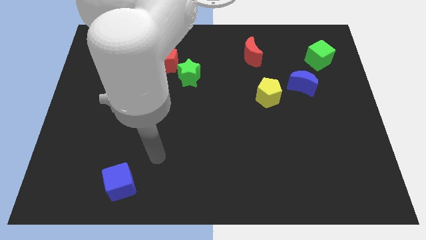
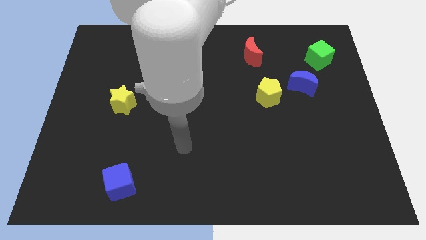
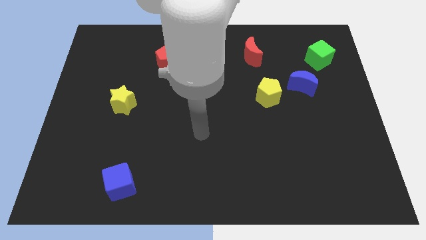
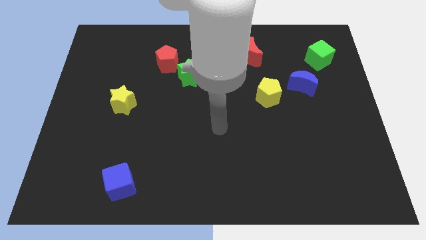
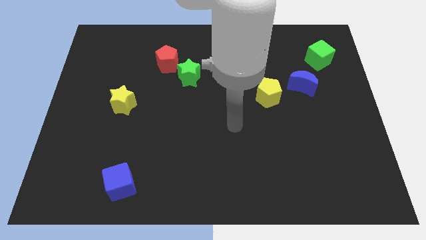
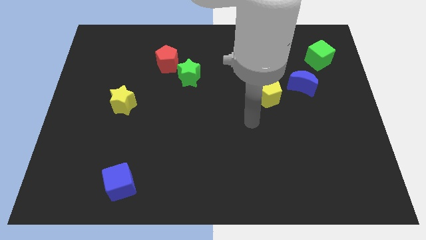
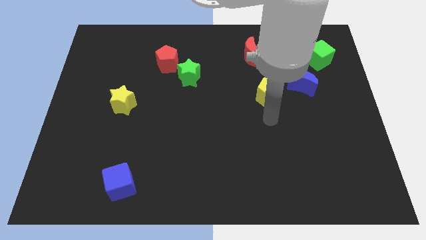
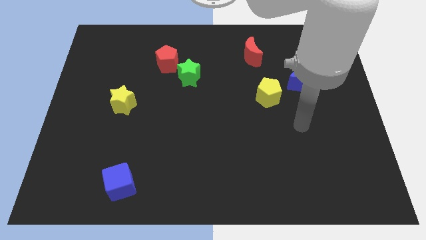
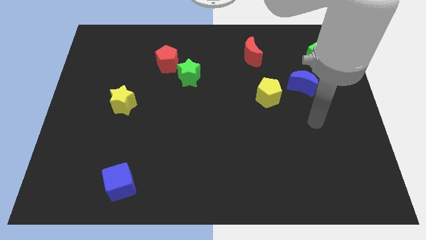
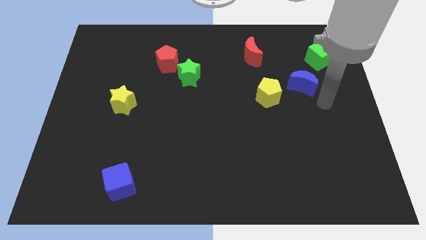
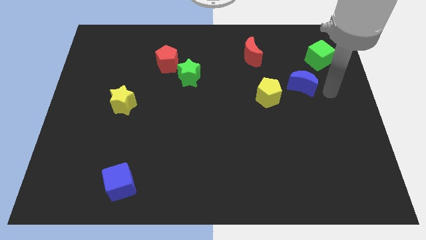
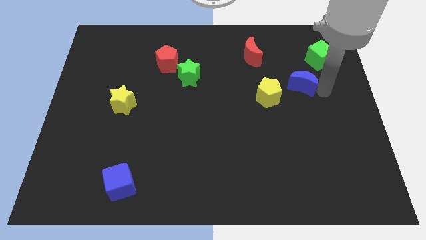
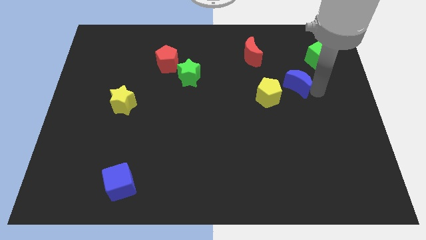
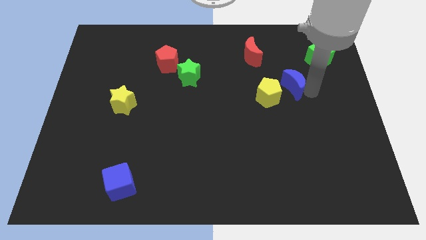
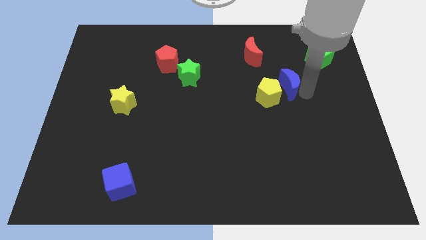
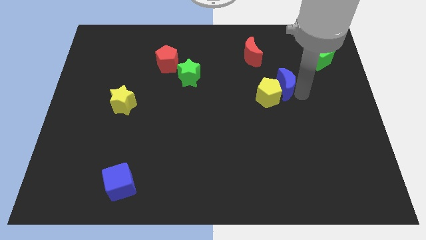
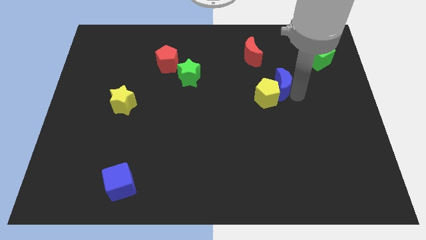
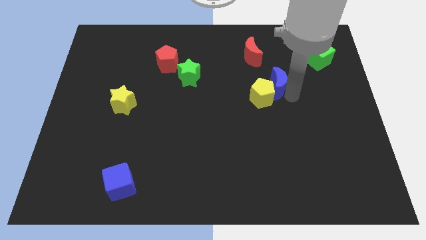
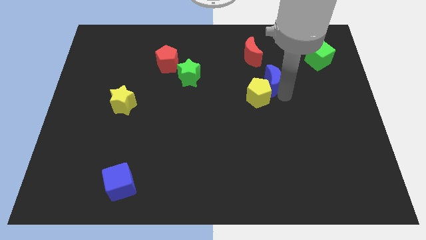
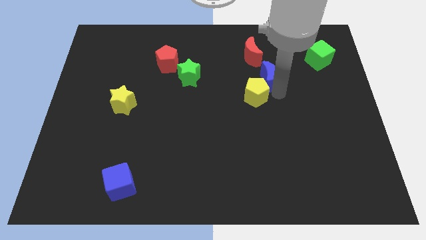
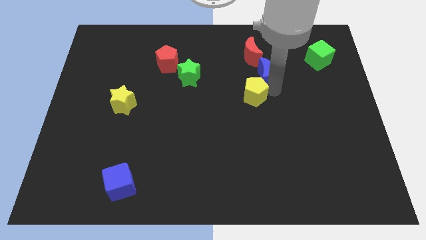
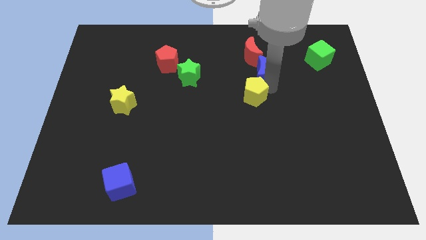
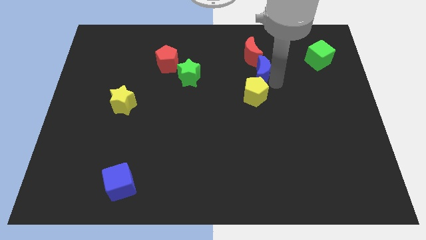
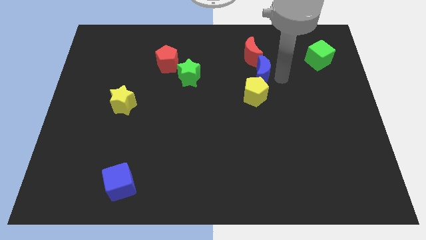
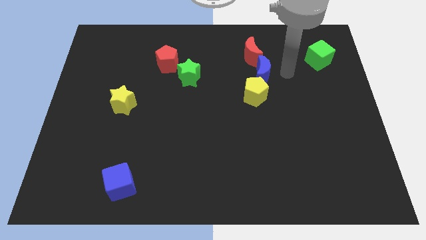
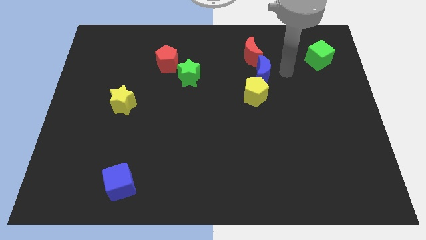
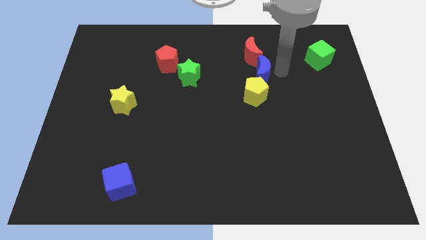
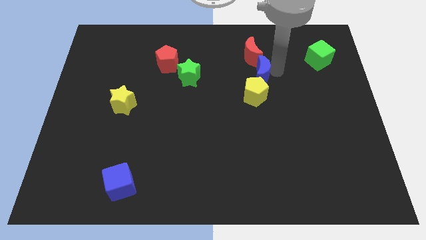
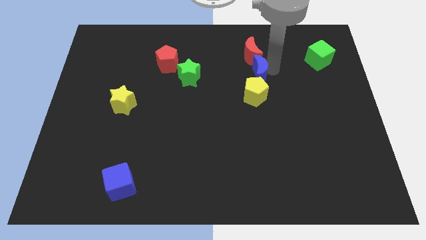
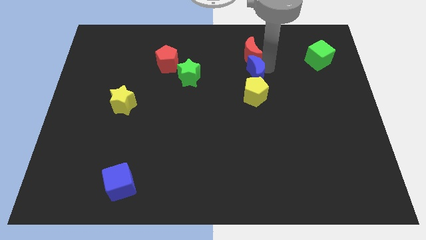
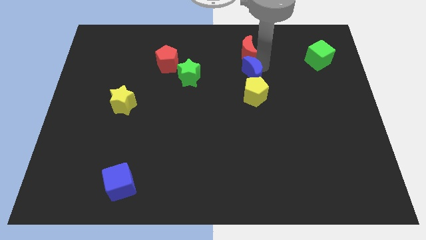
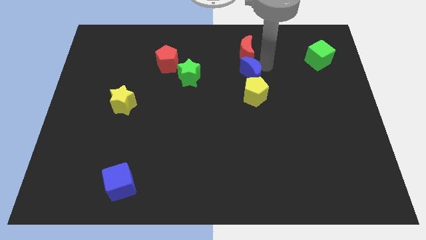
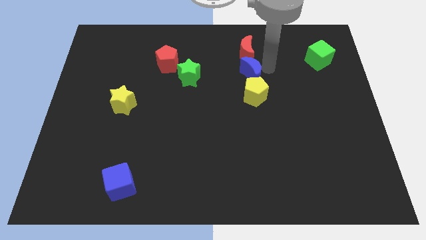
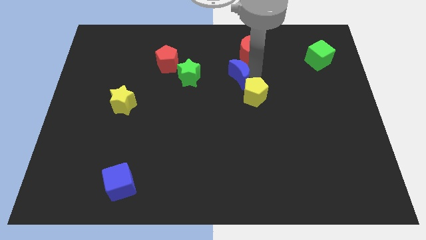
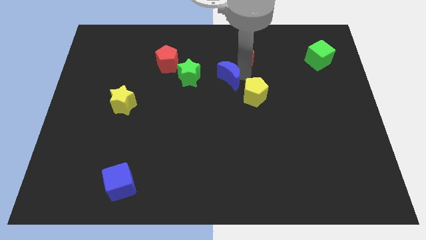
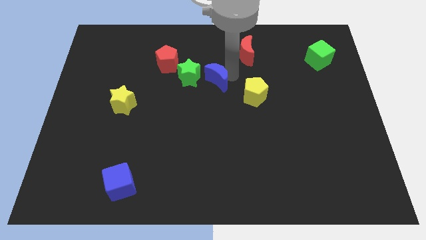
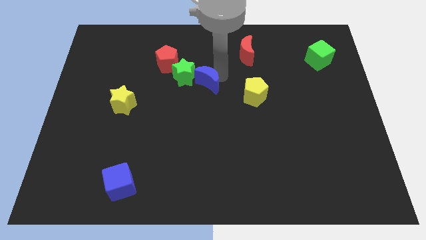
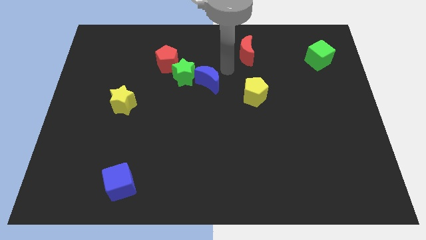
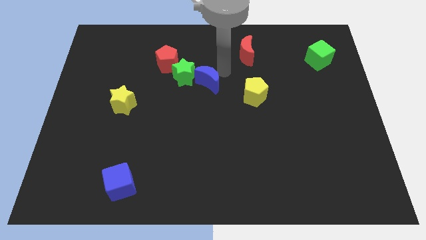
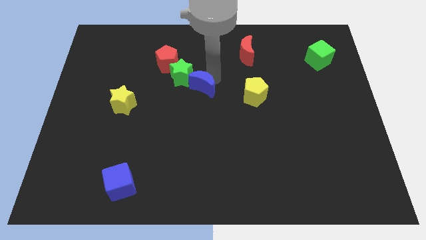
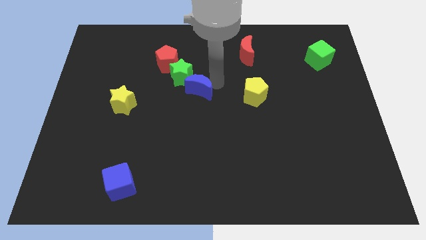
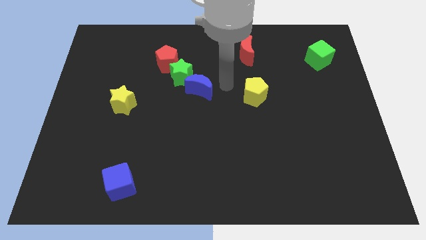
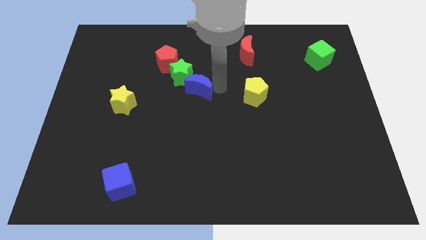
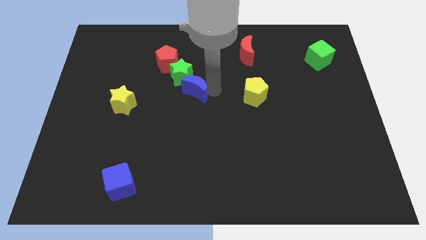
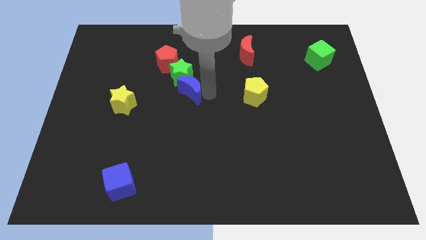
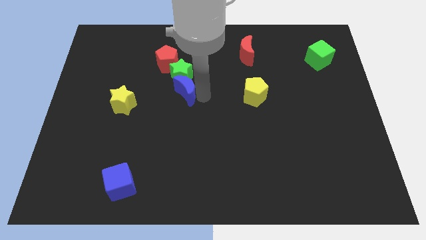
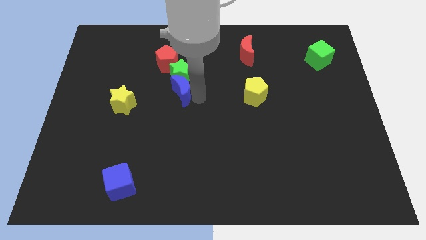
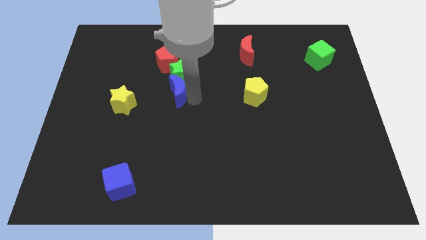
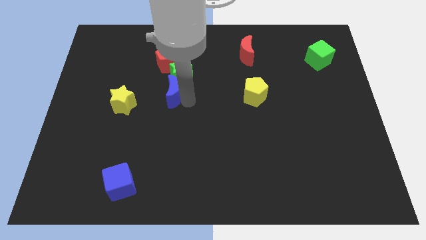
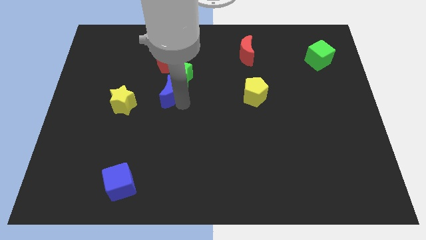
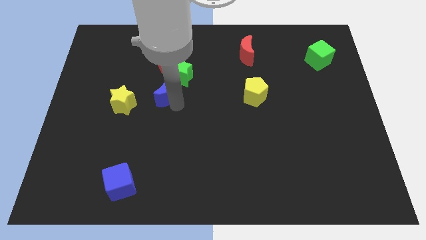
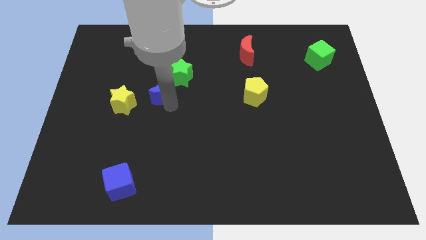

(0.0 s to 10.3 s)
push the blue moon to the top right of the yellow star

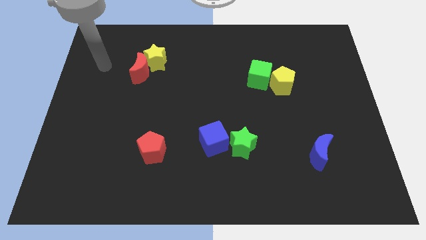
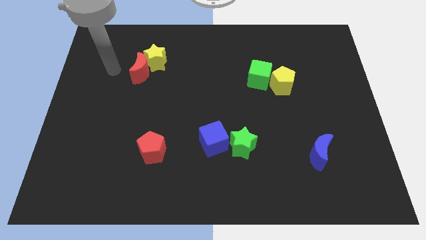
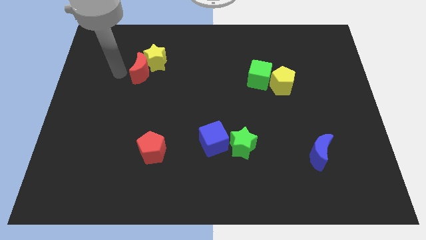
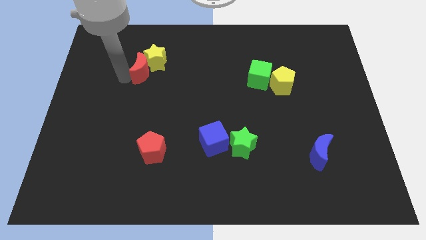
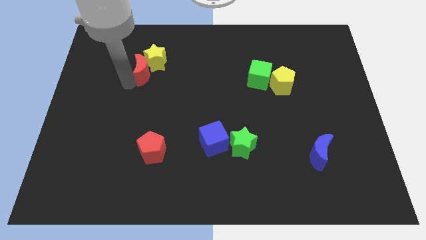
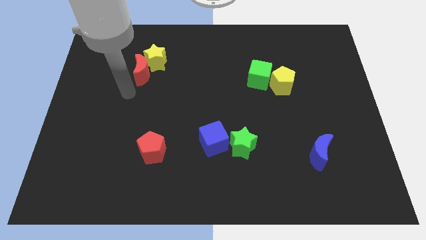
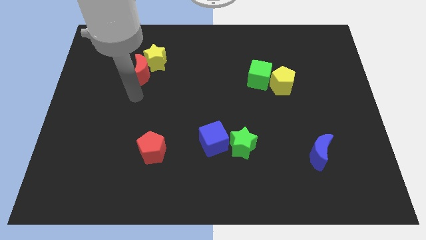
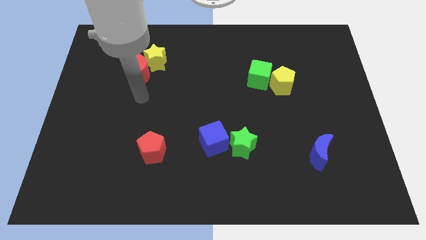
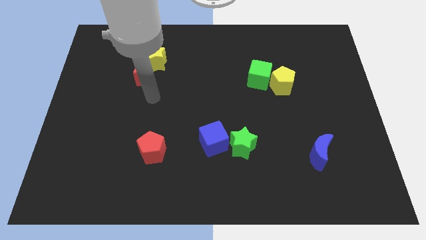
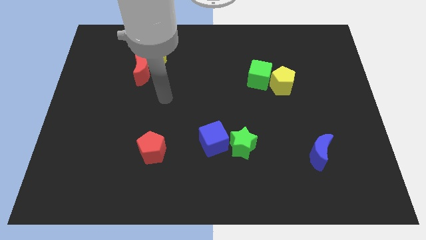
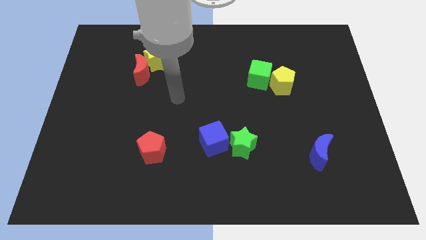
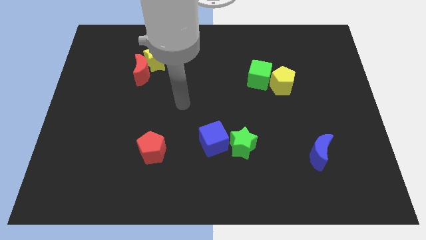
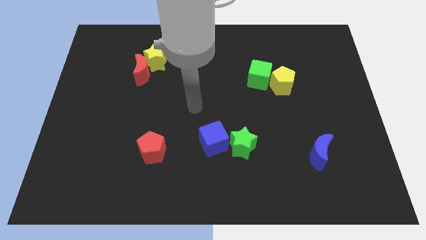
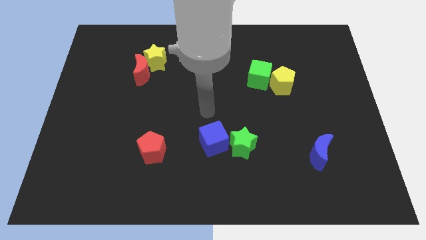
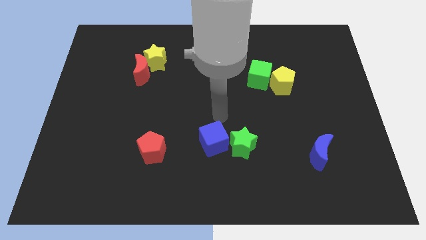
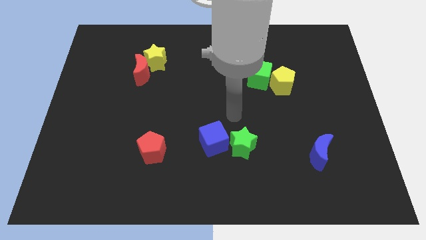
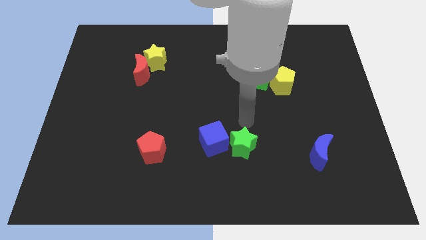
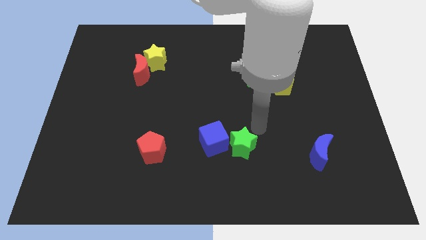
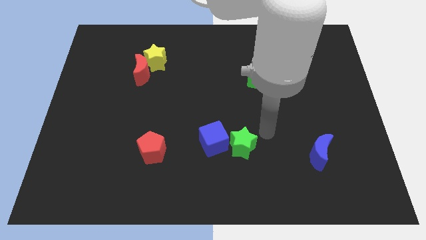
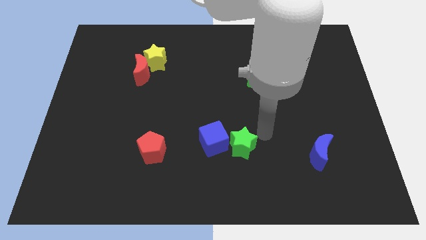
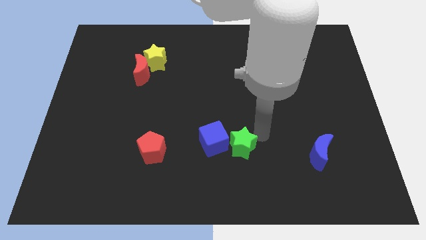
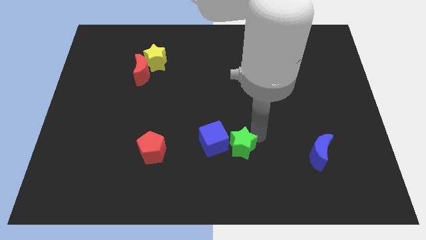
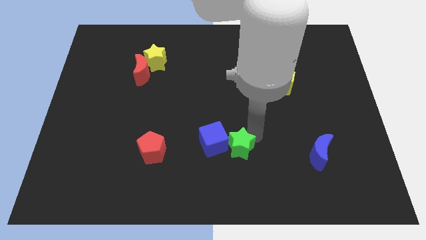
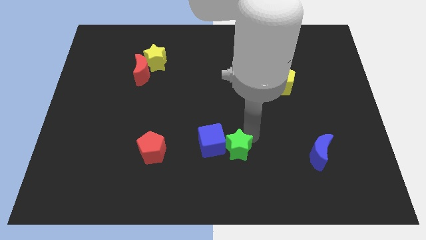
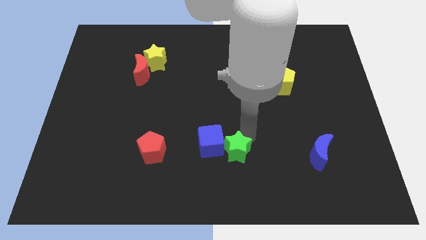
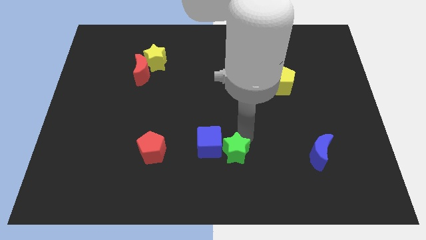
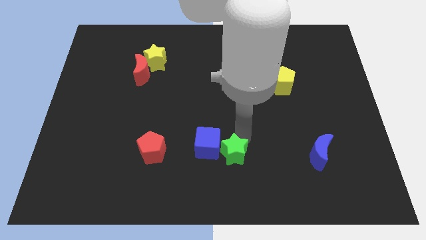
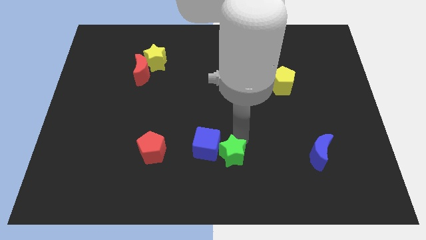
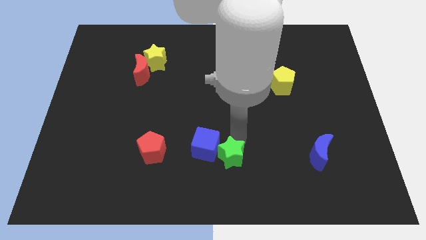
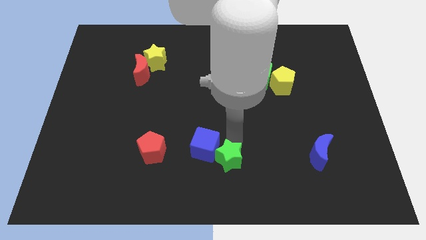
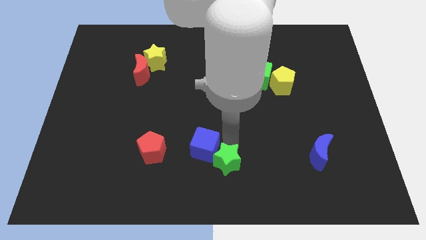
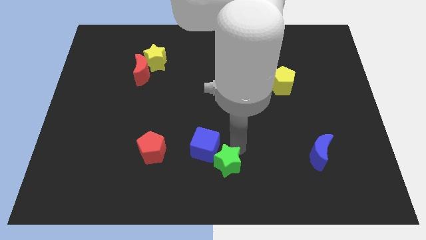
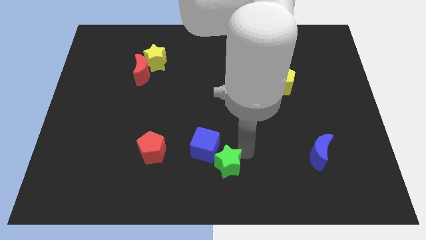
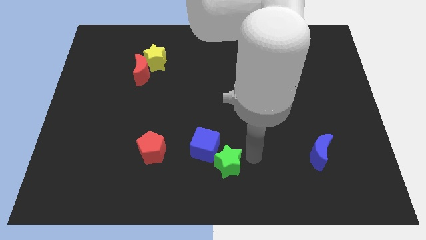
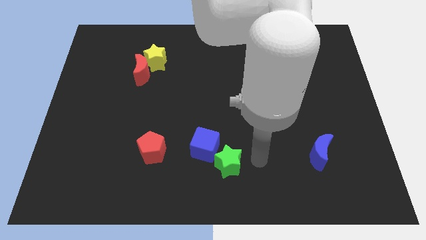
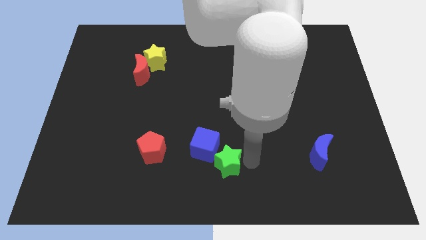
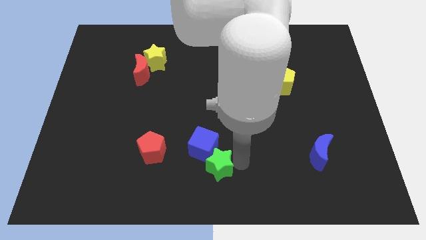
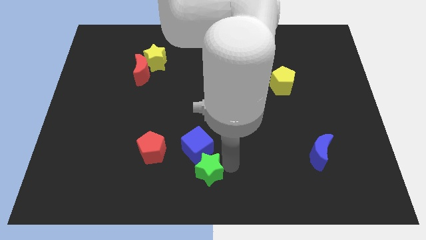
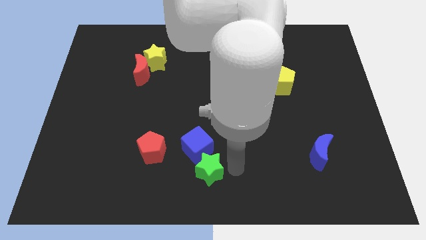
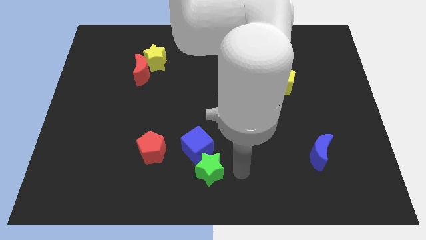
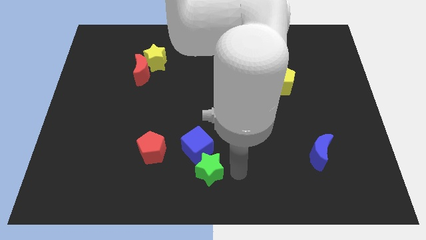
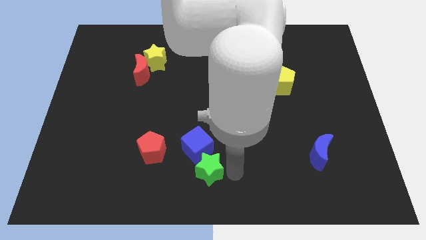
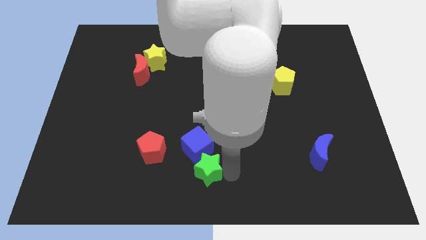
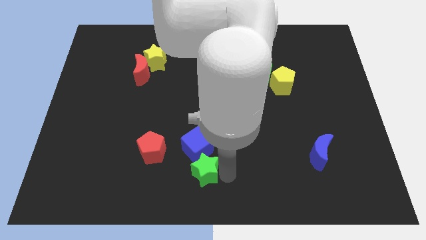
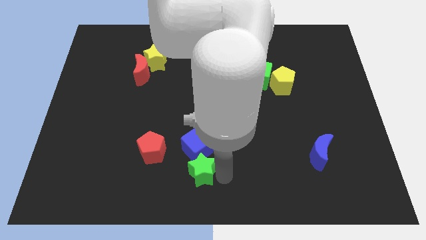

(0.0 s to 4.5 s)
put the green star to the bottom left of the blue cube
